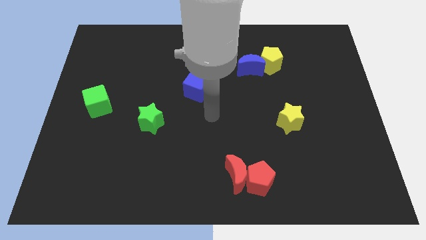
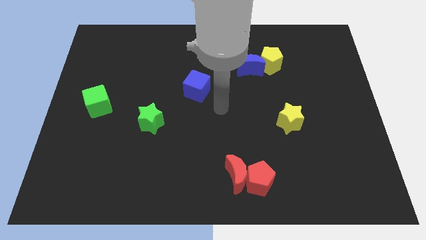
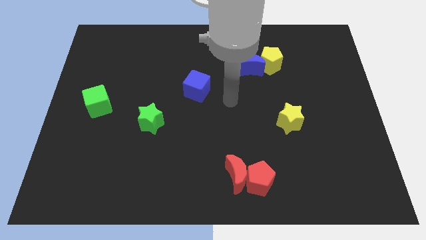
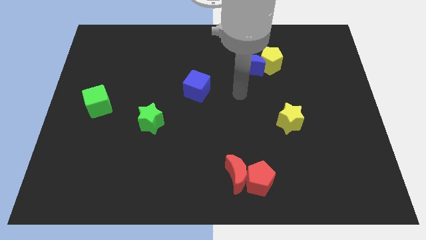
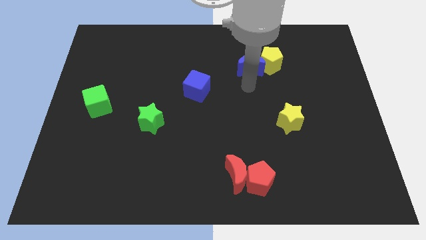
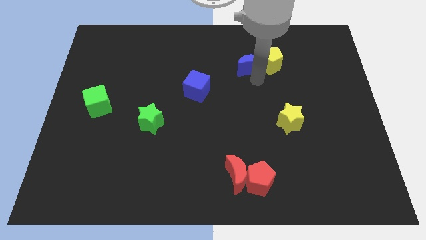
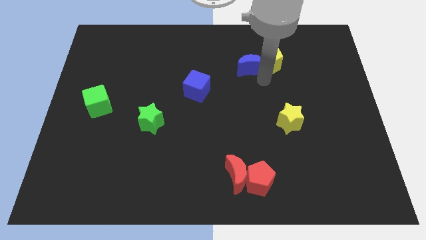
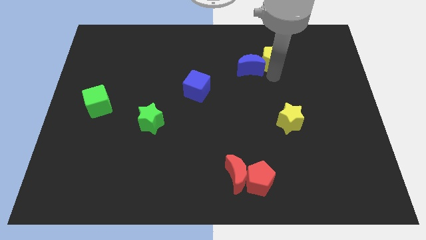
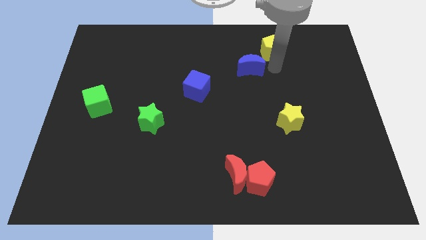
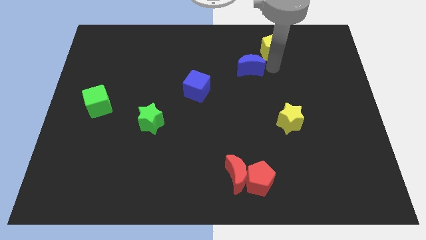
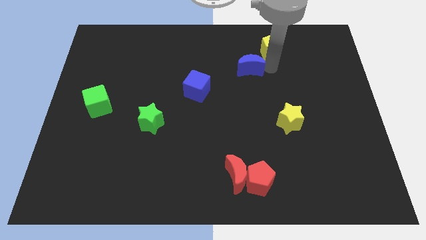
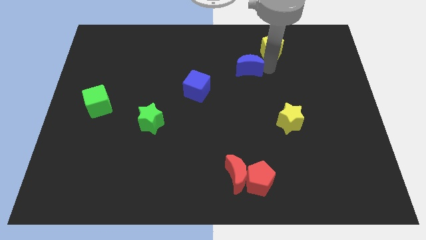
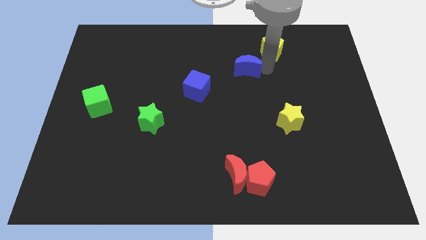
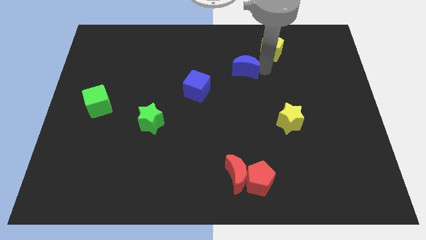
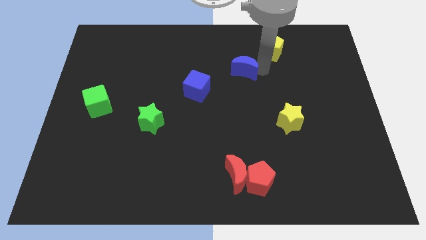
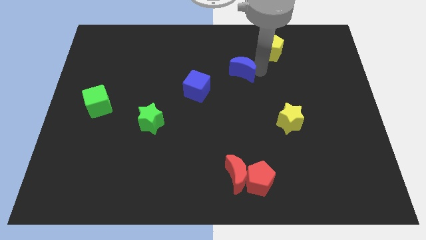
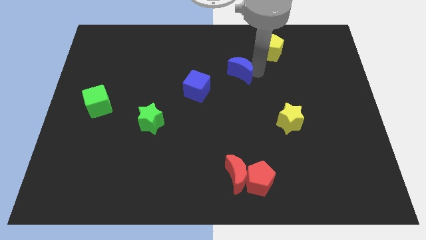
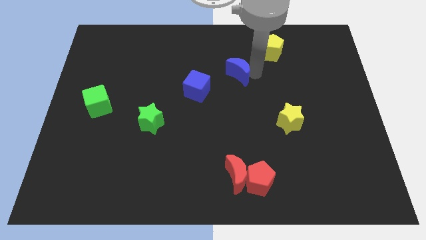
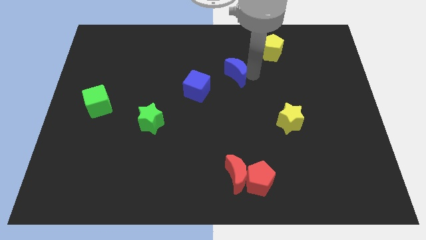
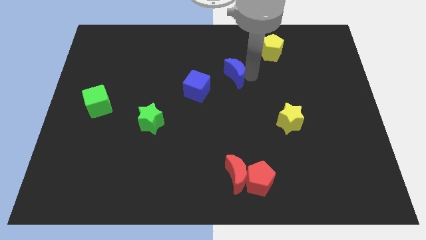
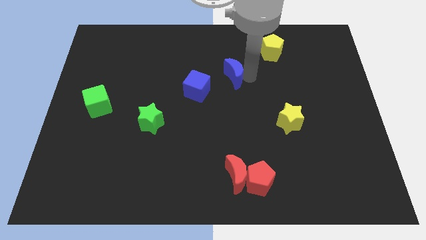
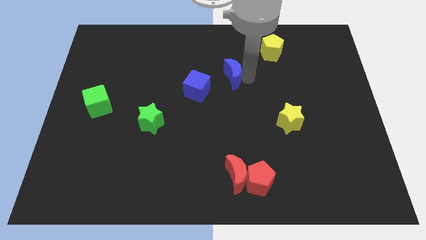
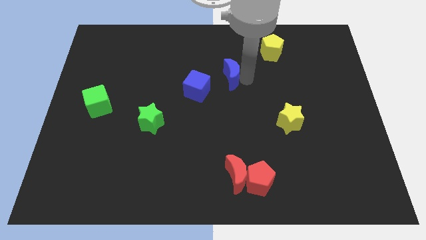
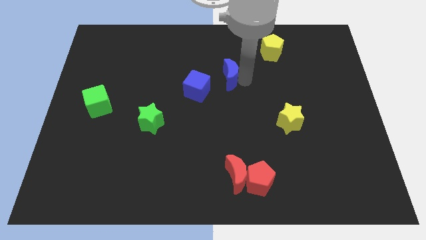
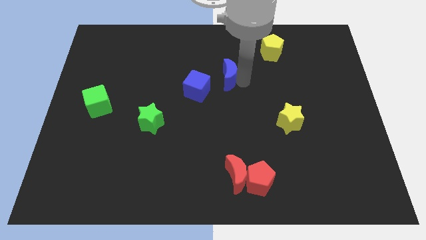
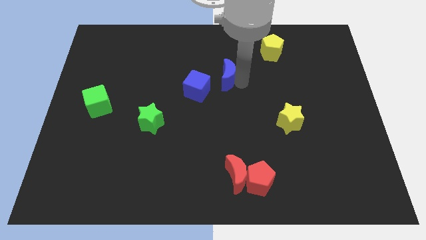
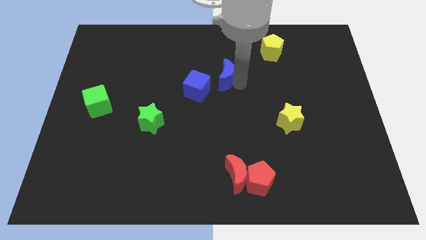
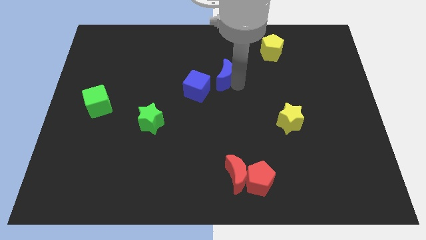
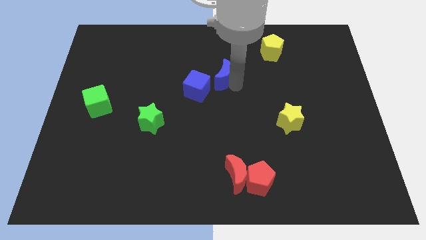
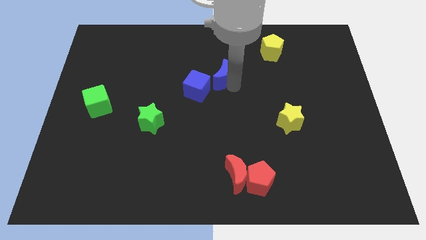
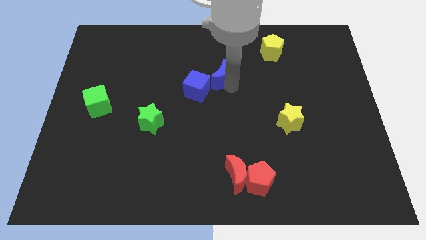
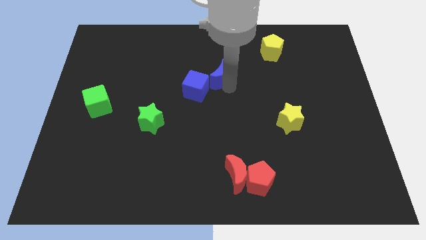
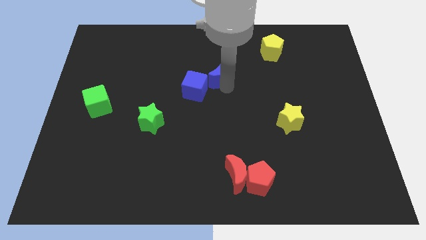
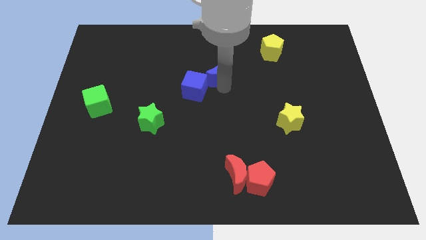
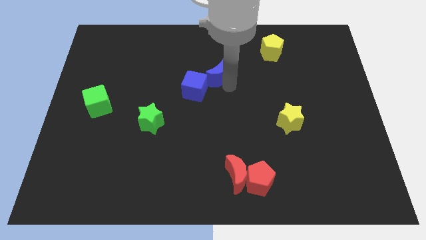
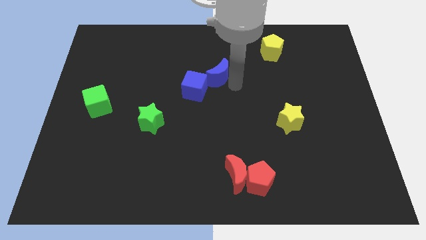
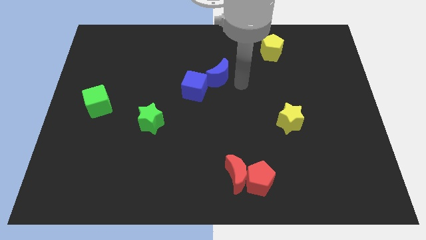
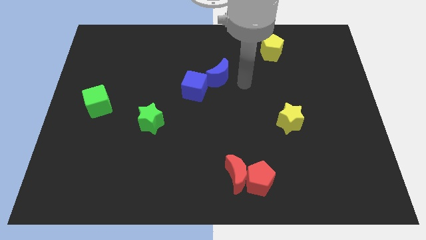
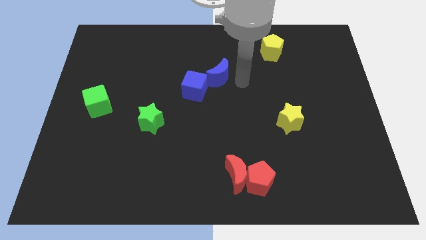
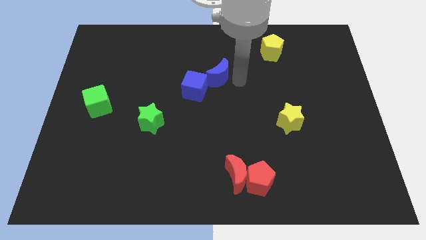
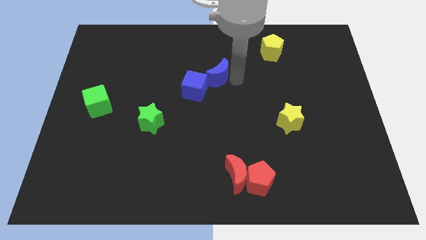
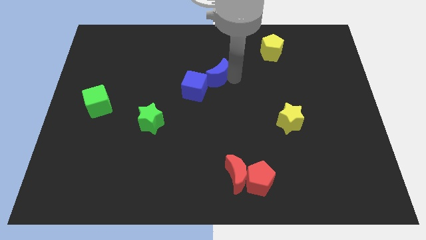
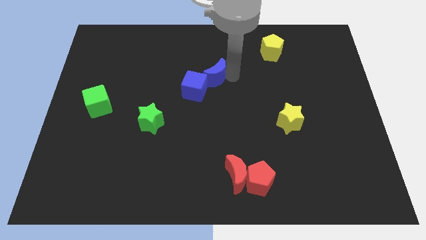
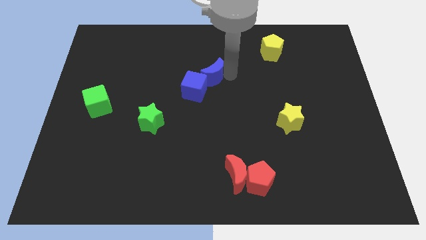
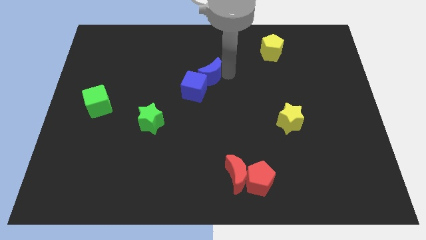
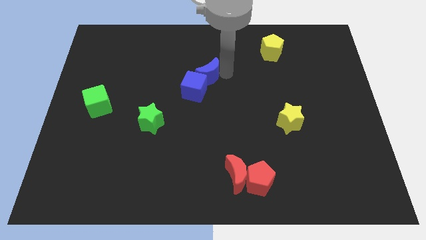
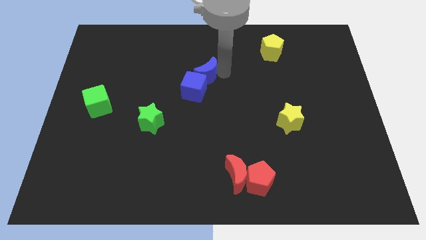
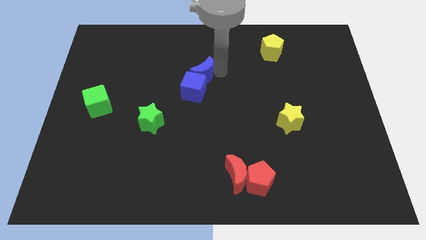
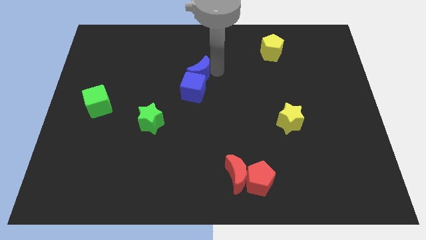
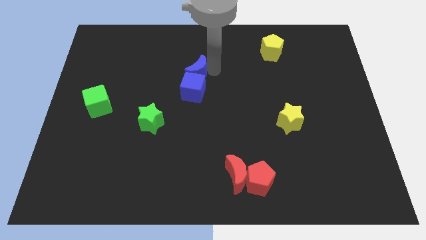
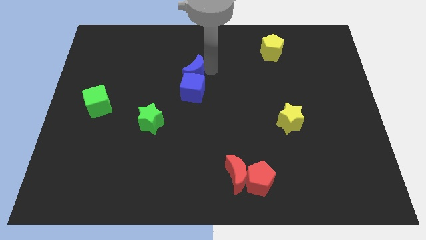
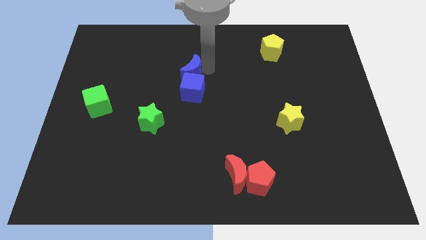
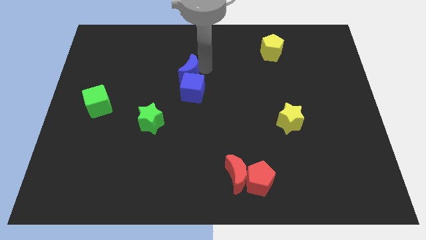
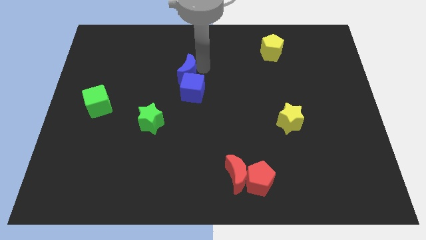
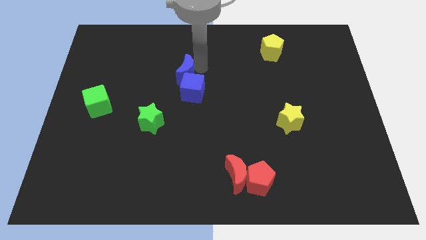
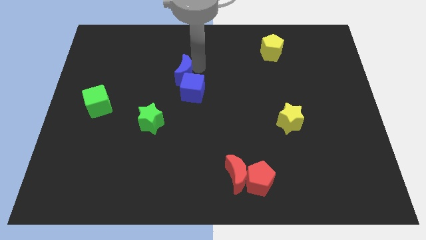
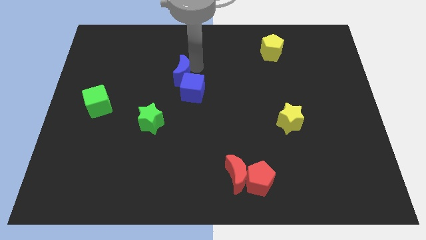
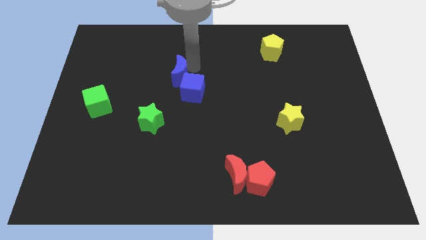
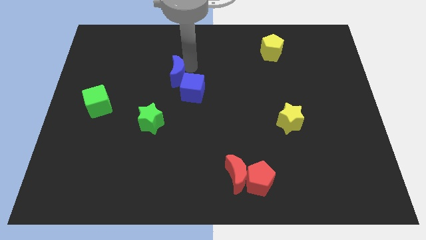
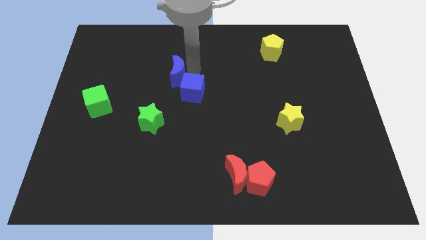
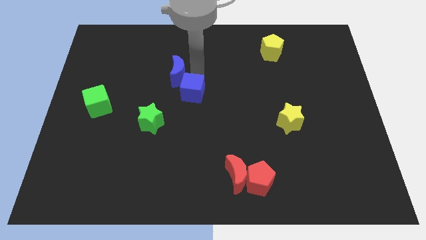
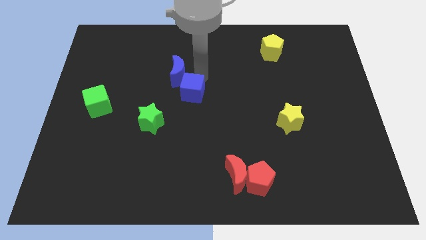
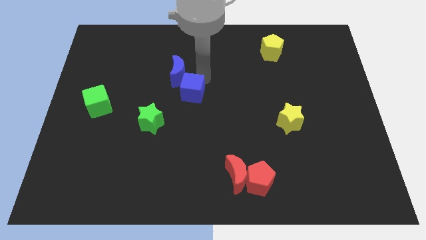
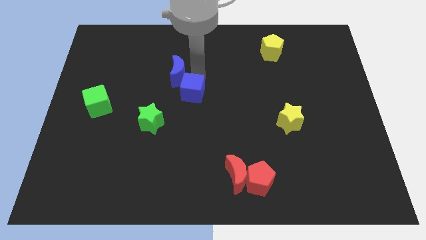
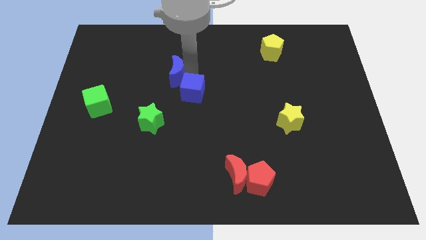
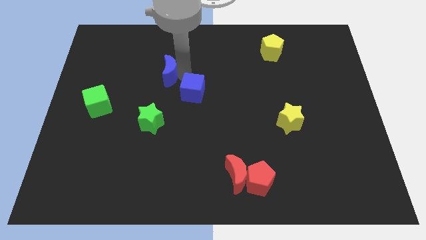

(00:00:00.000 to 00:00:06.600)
slide the blue moon left

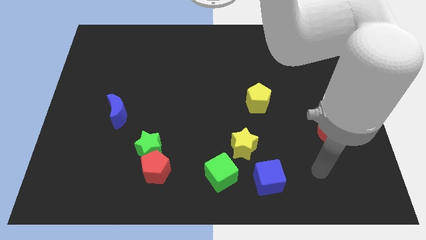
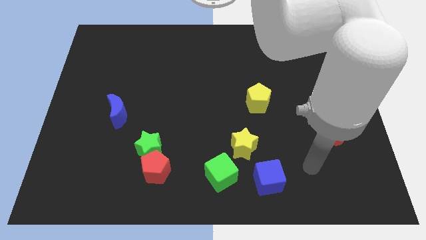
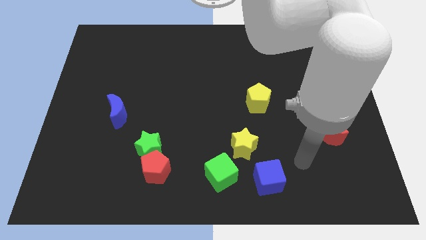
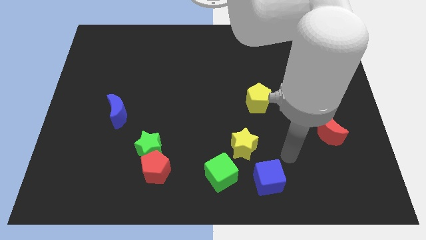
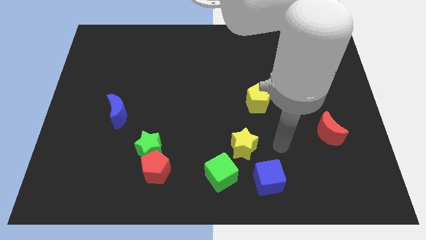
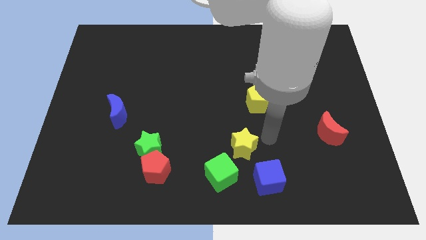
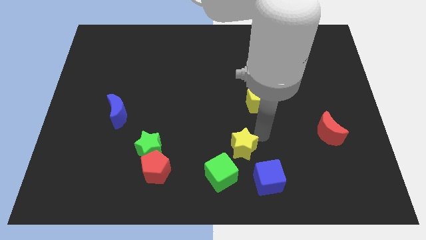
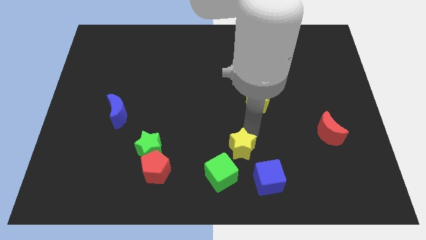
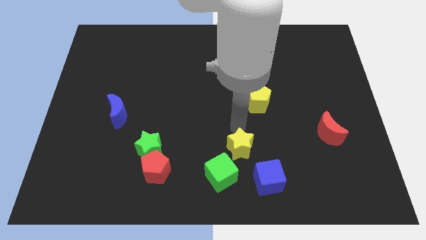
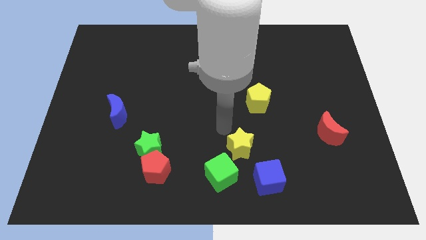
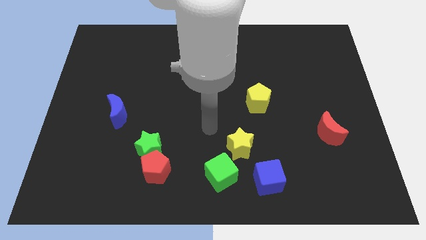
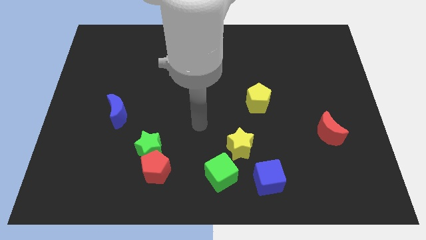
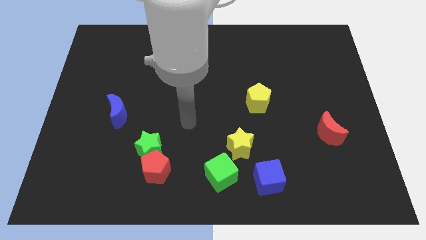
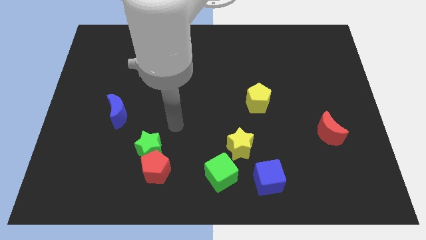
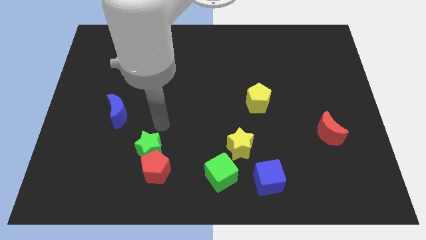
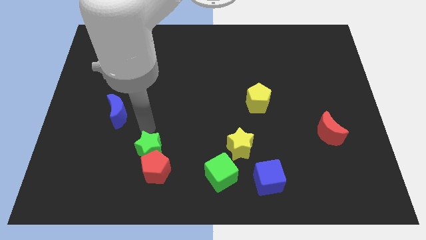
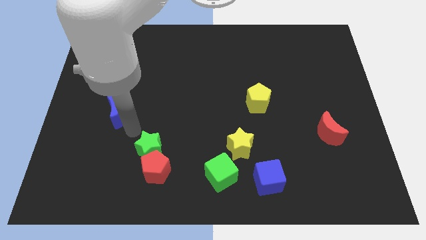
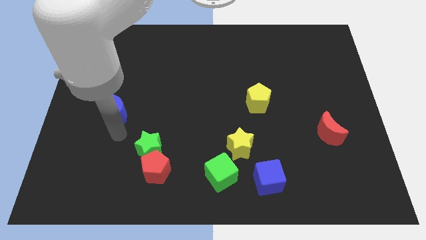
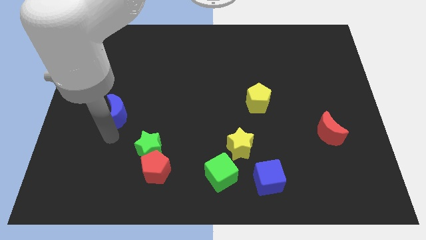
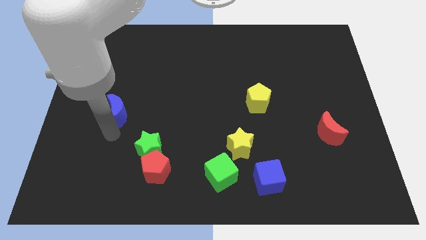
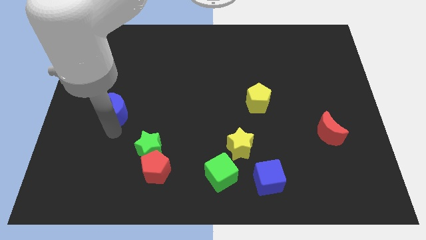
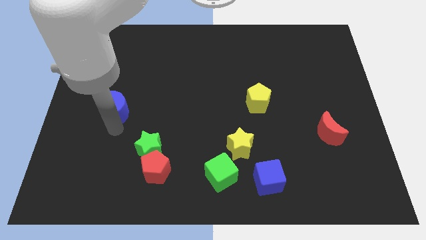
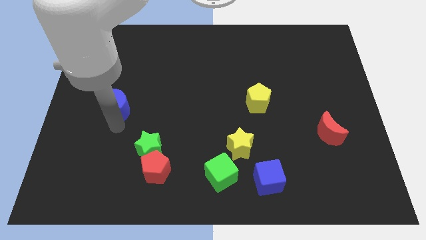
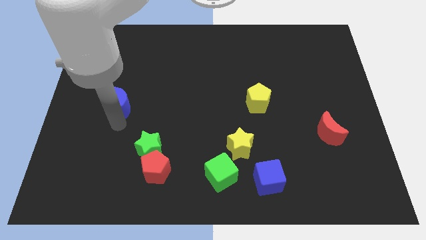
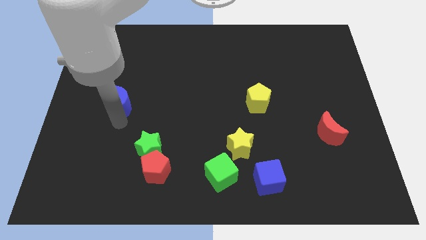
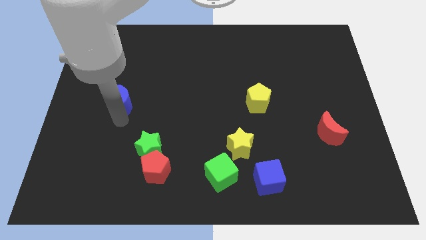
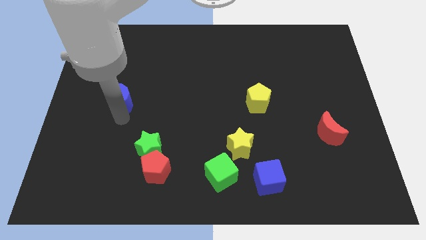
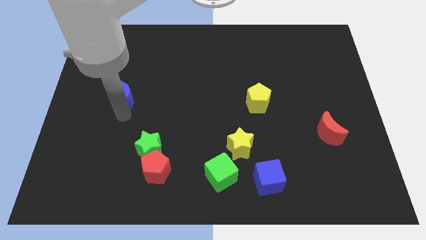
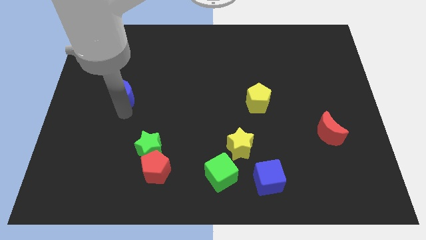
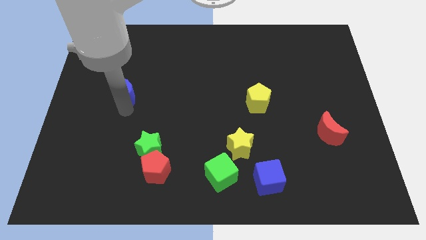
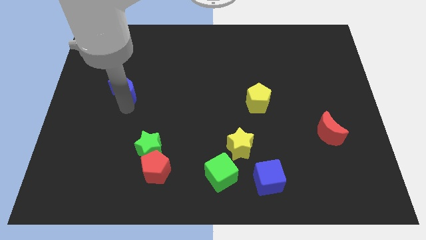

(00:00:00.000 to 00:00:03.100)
push the blue moon upwards somewhat
